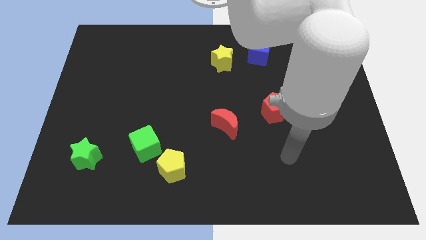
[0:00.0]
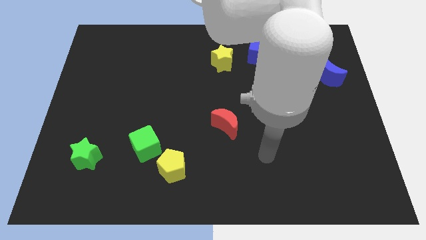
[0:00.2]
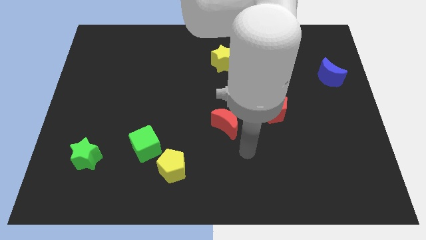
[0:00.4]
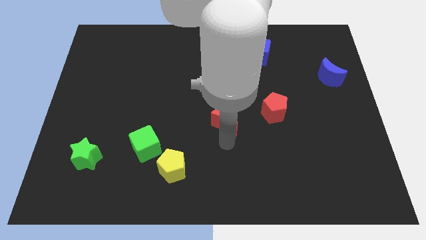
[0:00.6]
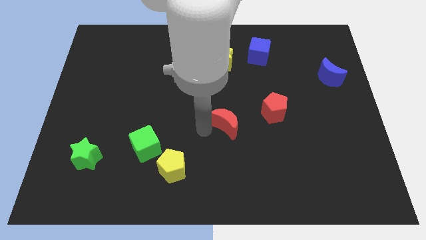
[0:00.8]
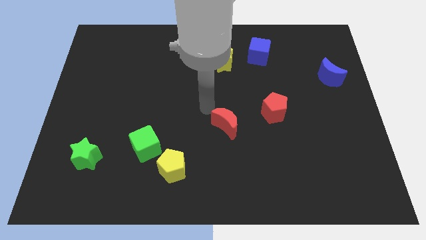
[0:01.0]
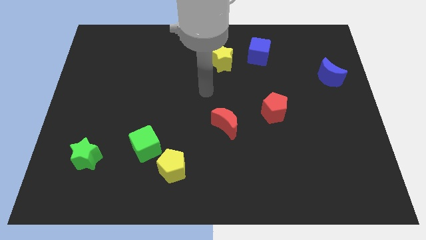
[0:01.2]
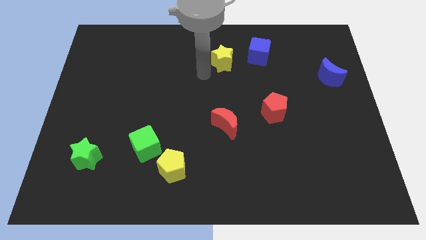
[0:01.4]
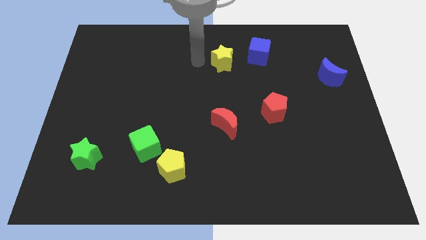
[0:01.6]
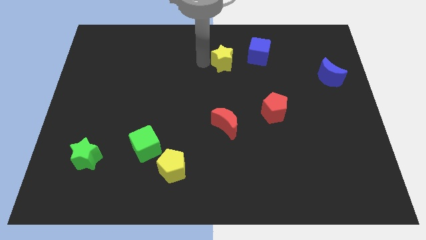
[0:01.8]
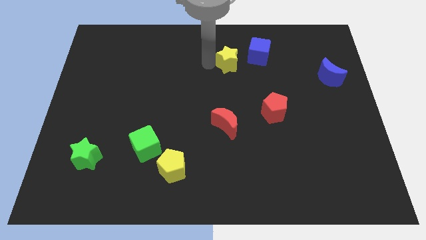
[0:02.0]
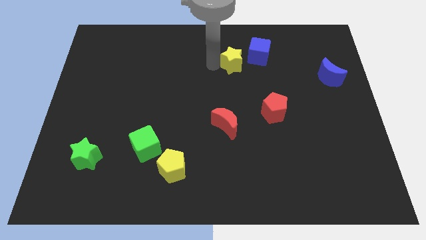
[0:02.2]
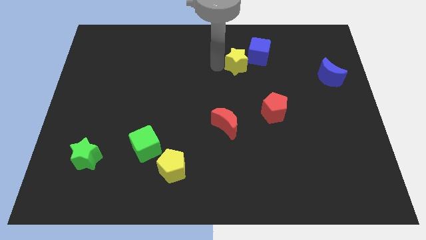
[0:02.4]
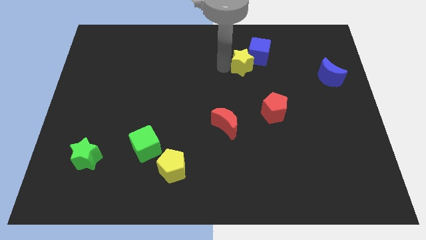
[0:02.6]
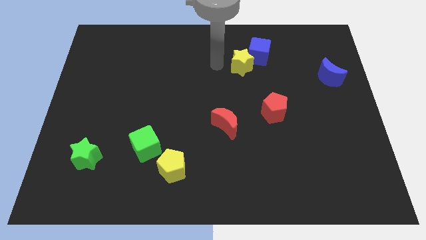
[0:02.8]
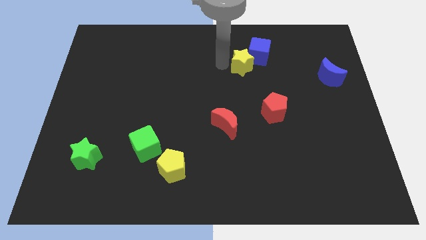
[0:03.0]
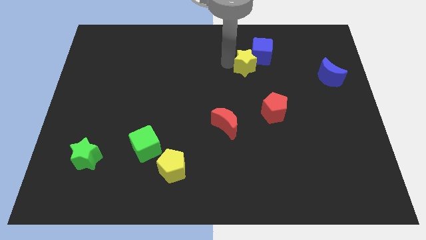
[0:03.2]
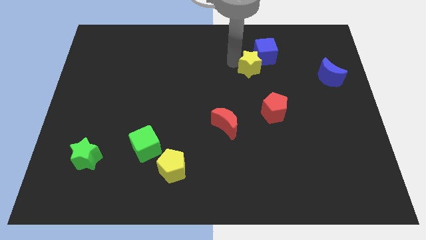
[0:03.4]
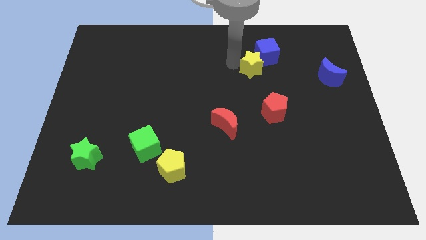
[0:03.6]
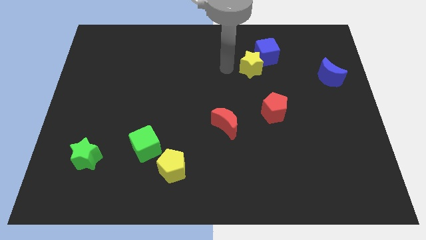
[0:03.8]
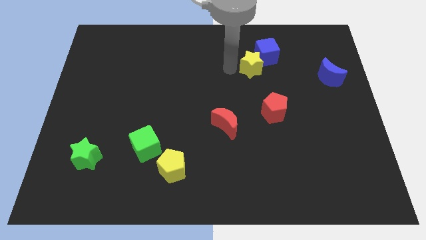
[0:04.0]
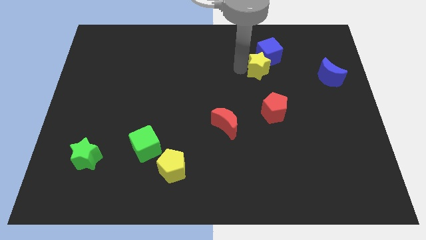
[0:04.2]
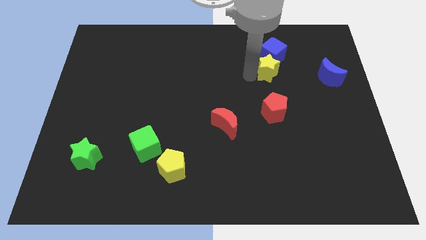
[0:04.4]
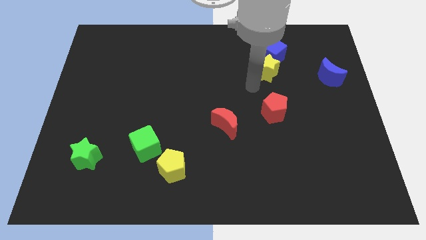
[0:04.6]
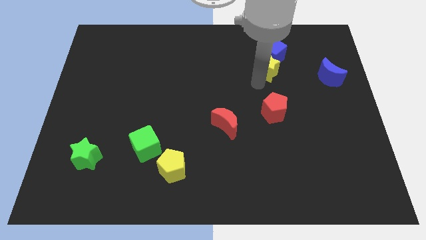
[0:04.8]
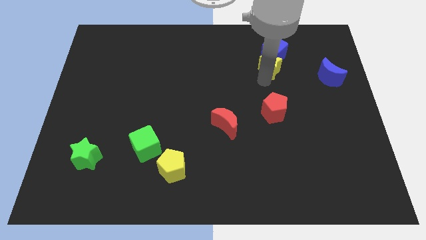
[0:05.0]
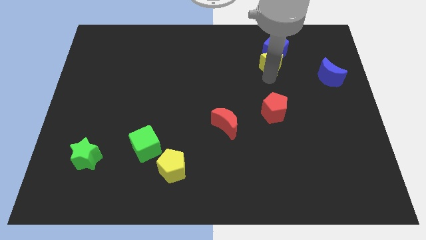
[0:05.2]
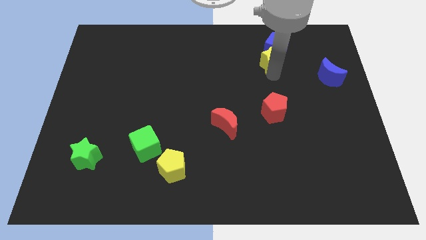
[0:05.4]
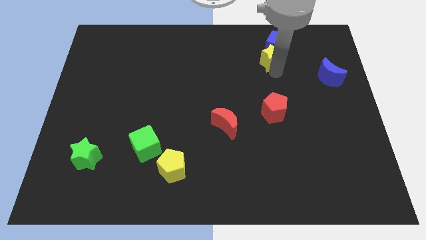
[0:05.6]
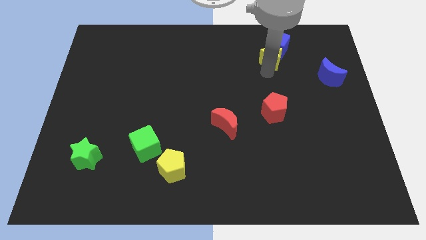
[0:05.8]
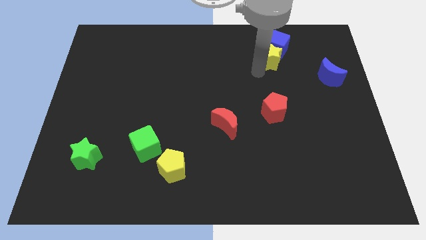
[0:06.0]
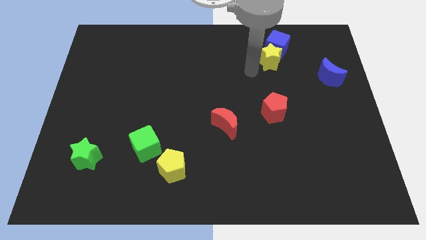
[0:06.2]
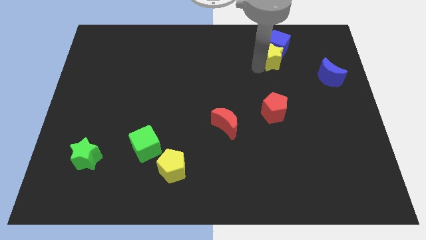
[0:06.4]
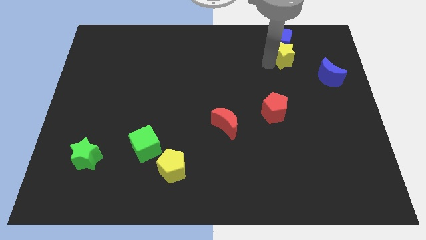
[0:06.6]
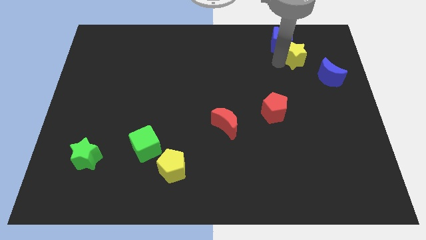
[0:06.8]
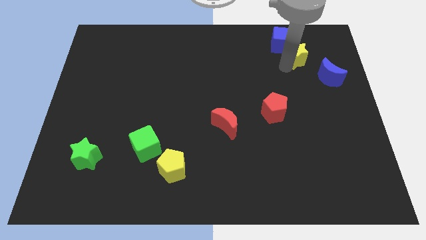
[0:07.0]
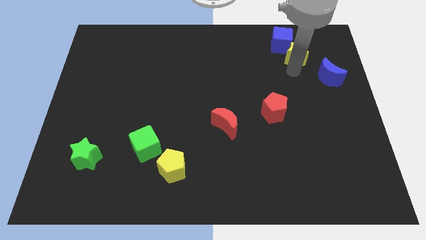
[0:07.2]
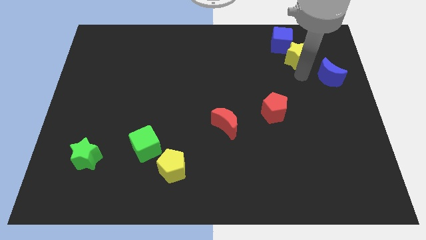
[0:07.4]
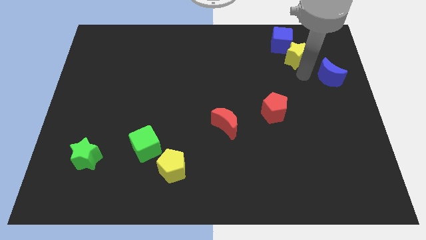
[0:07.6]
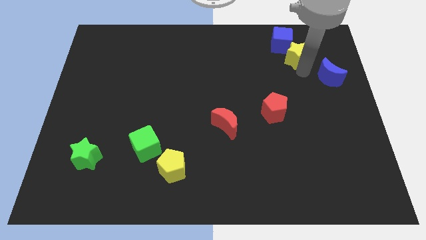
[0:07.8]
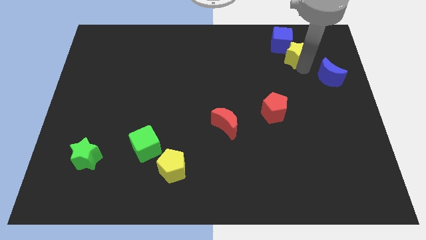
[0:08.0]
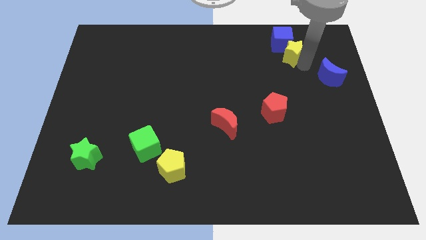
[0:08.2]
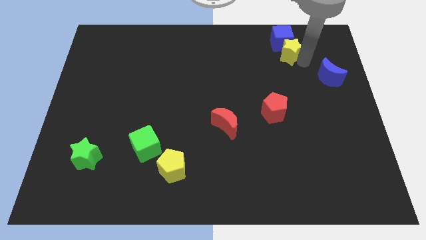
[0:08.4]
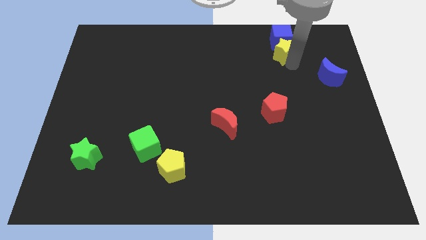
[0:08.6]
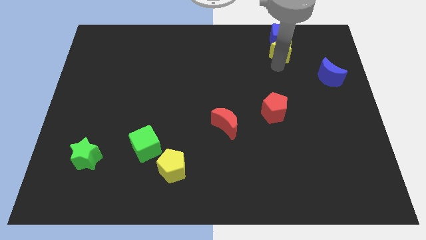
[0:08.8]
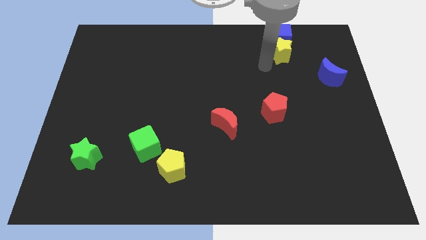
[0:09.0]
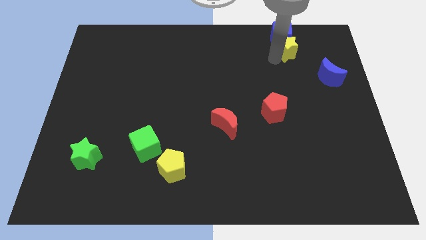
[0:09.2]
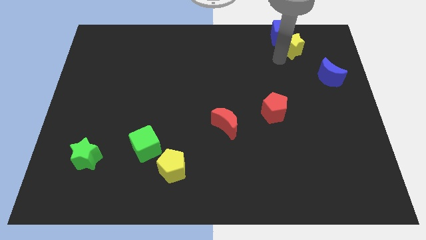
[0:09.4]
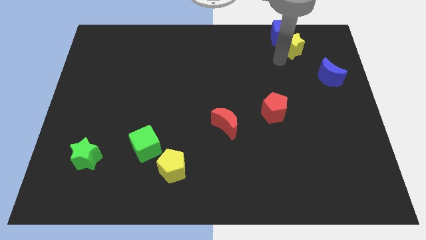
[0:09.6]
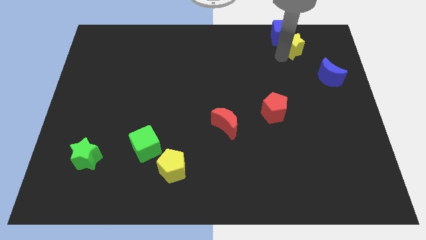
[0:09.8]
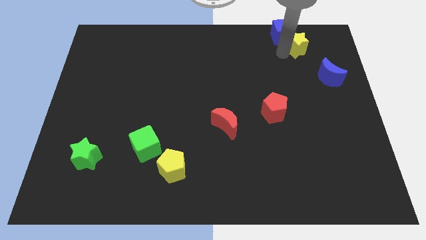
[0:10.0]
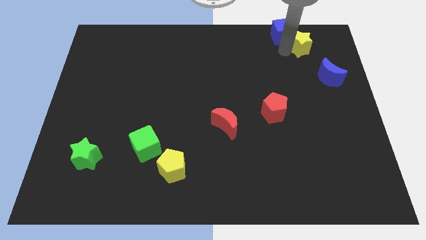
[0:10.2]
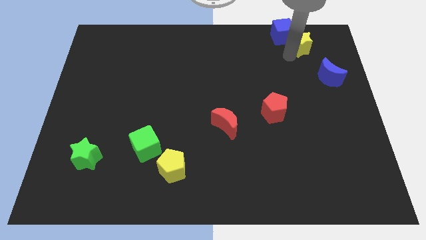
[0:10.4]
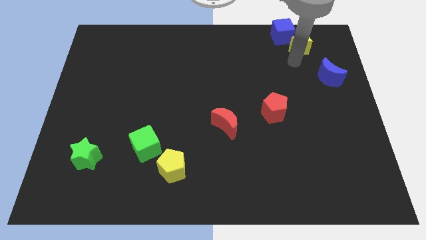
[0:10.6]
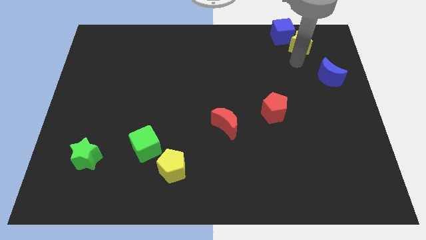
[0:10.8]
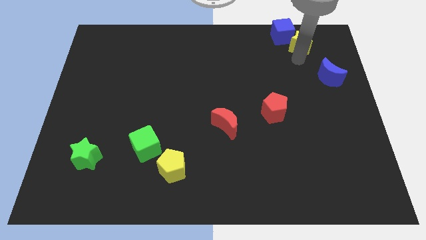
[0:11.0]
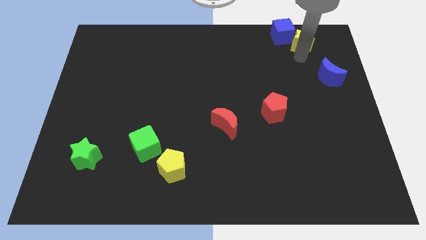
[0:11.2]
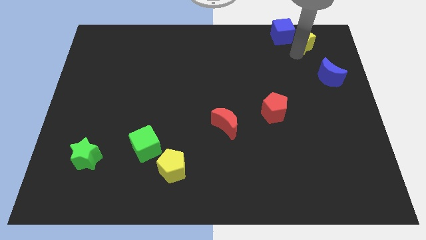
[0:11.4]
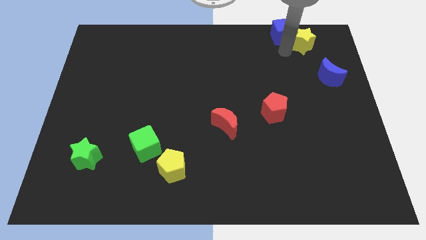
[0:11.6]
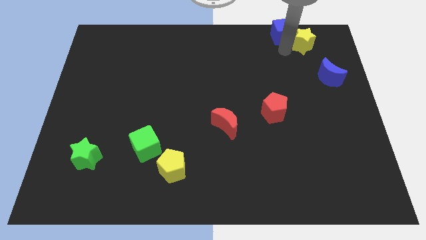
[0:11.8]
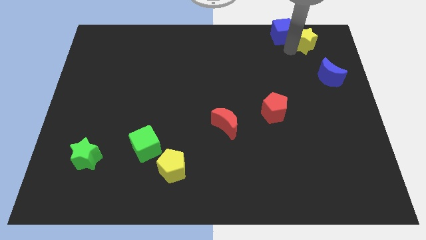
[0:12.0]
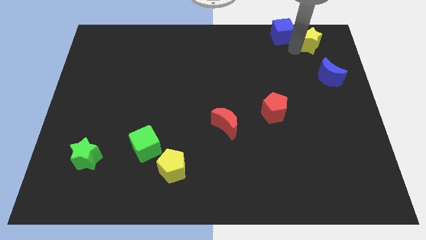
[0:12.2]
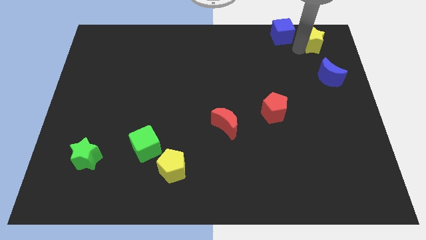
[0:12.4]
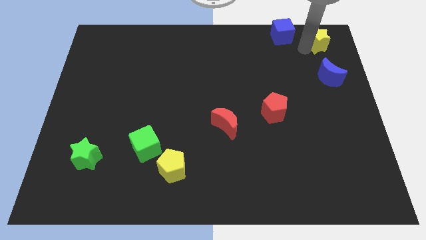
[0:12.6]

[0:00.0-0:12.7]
put the yellow star to the top right of the board
